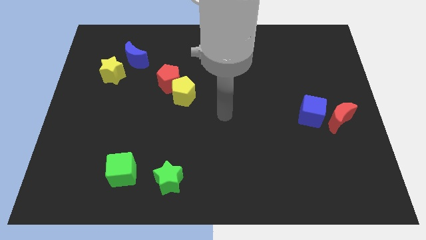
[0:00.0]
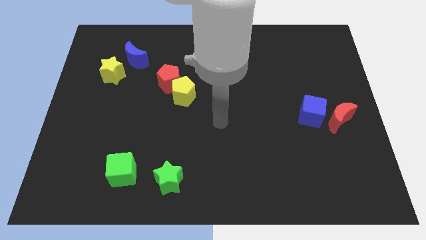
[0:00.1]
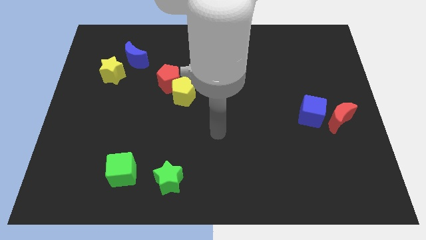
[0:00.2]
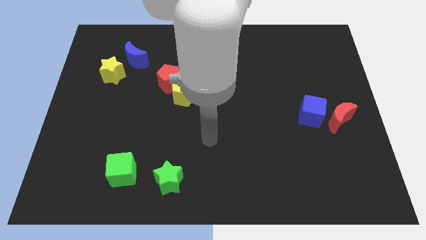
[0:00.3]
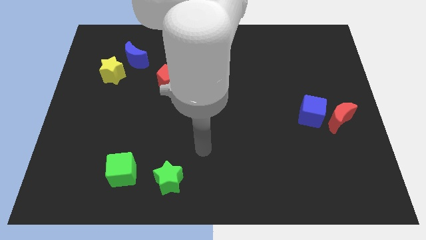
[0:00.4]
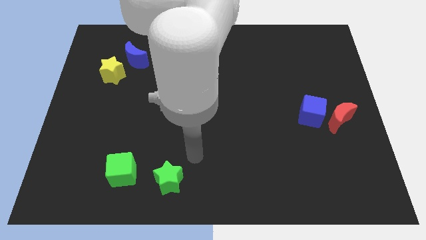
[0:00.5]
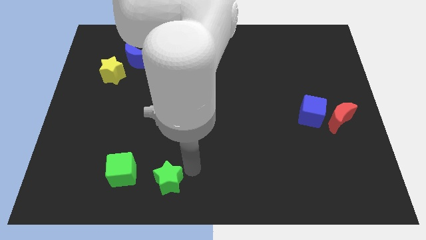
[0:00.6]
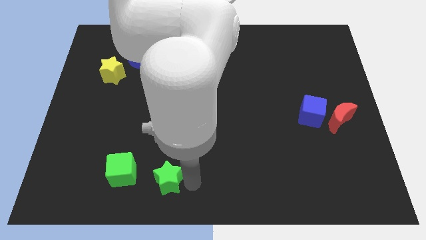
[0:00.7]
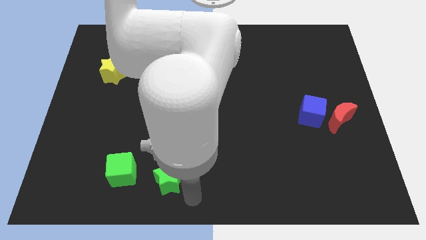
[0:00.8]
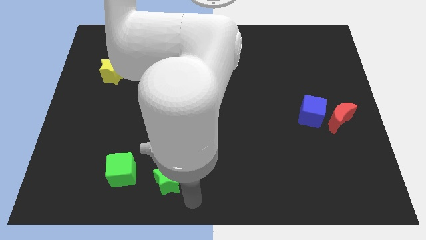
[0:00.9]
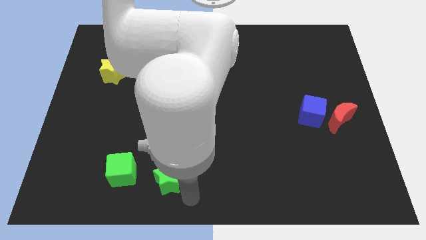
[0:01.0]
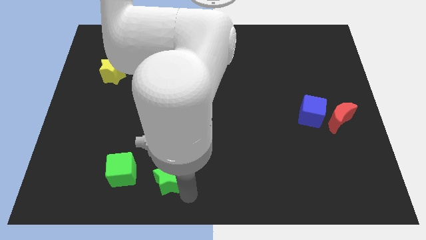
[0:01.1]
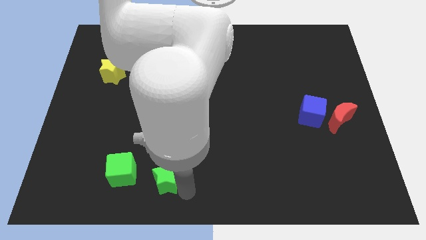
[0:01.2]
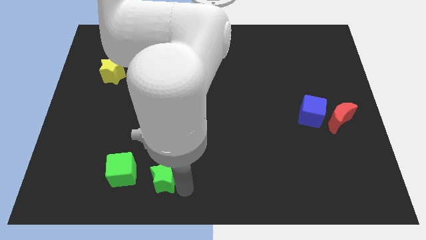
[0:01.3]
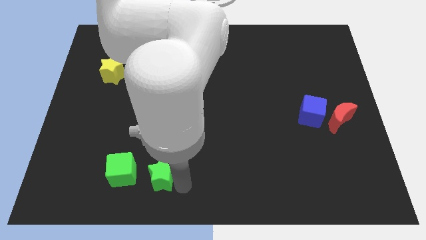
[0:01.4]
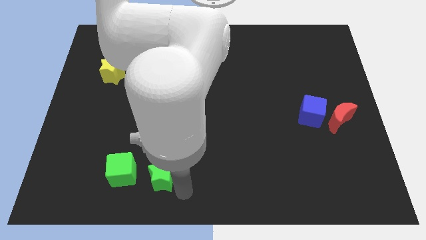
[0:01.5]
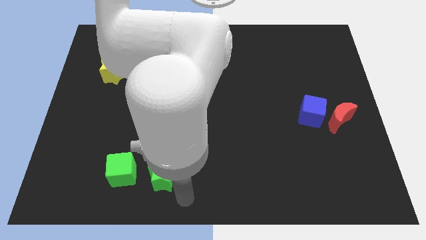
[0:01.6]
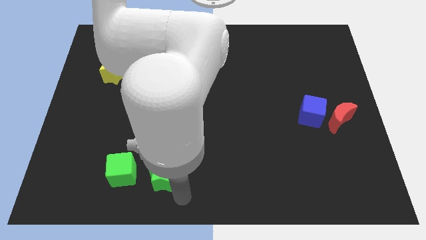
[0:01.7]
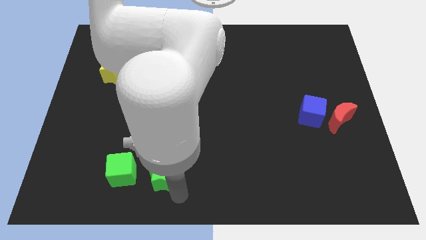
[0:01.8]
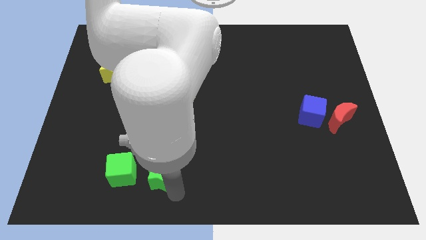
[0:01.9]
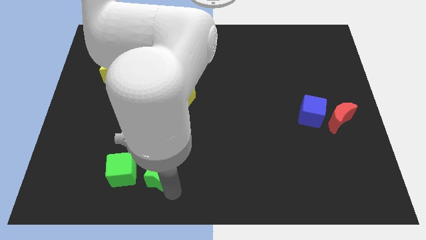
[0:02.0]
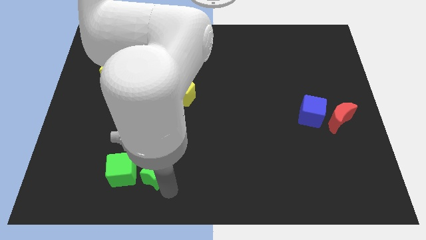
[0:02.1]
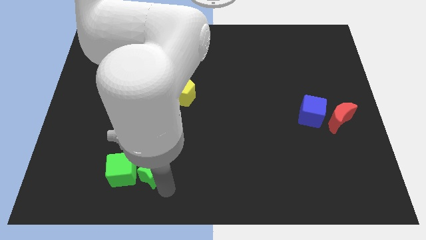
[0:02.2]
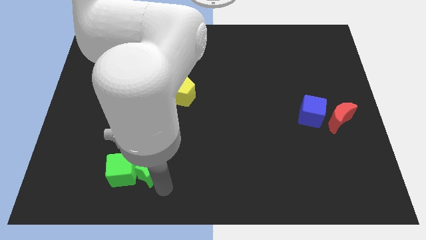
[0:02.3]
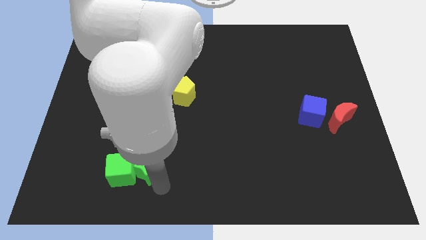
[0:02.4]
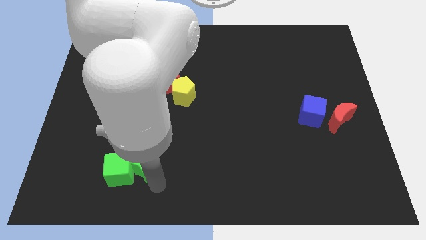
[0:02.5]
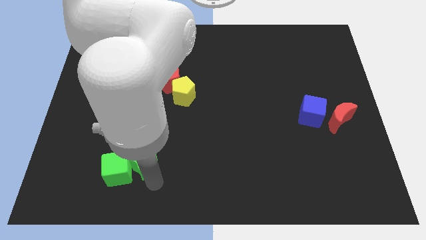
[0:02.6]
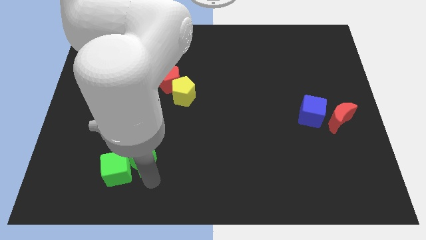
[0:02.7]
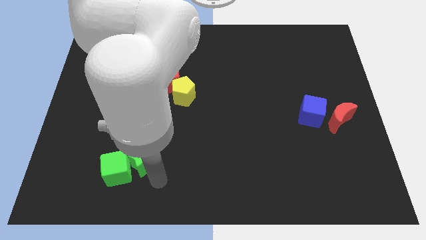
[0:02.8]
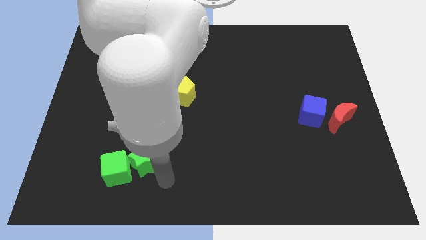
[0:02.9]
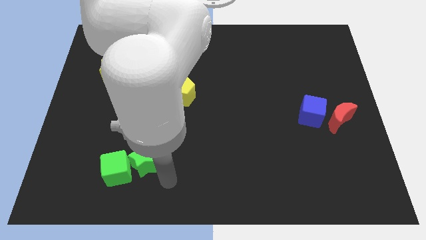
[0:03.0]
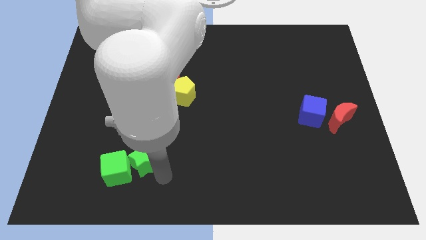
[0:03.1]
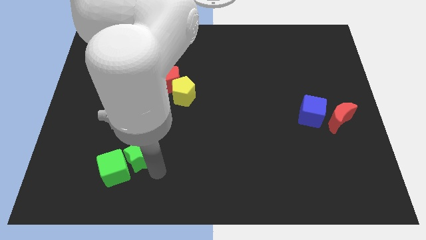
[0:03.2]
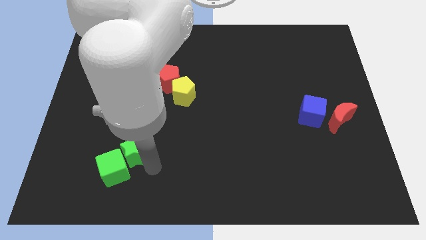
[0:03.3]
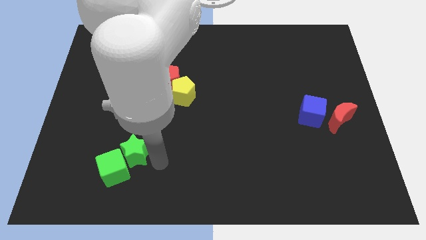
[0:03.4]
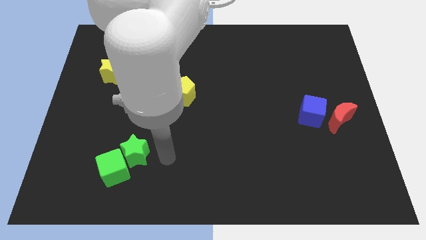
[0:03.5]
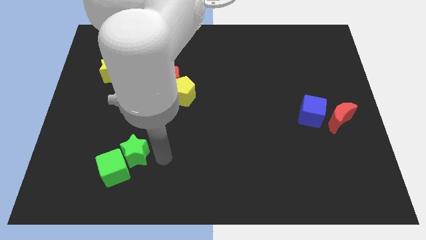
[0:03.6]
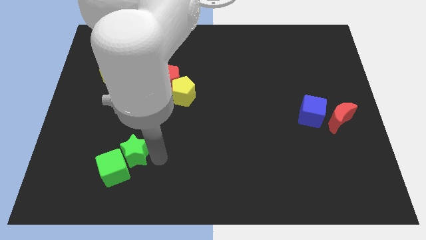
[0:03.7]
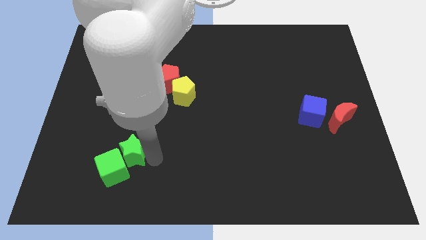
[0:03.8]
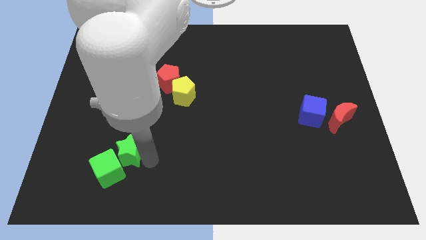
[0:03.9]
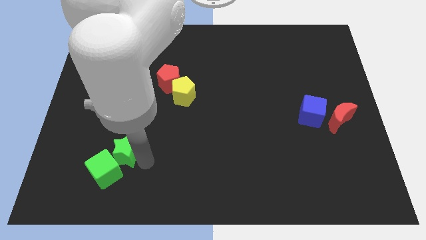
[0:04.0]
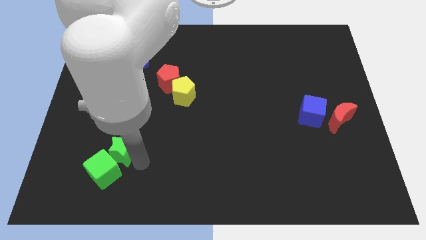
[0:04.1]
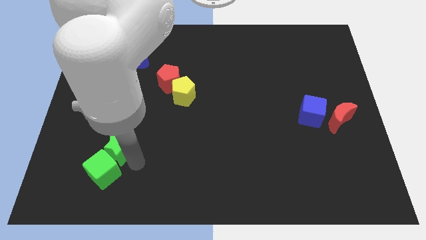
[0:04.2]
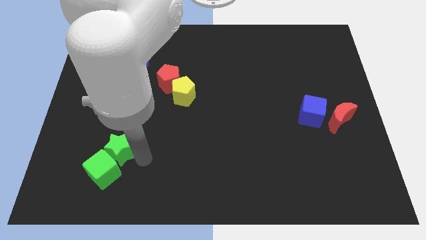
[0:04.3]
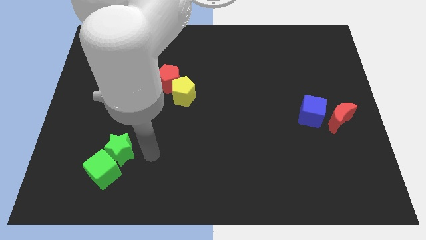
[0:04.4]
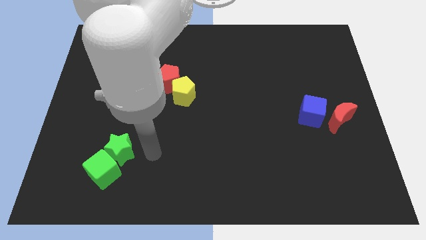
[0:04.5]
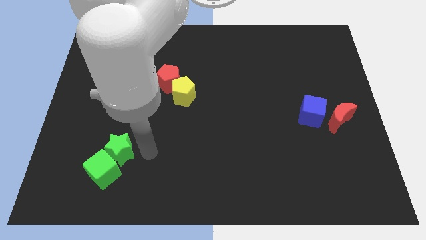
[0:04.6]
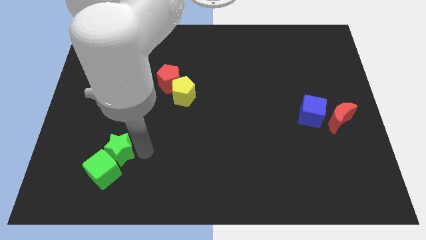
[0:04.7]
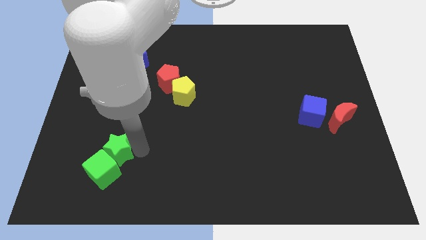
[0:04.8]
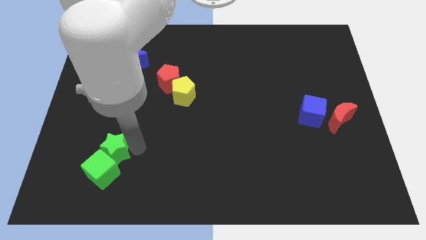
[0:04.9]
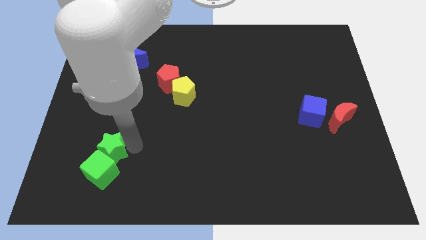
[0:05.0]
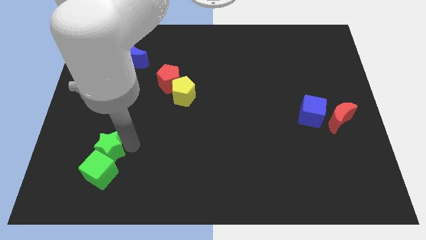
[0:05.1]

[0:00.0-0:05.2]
slide the green star diagonally up and to the left of the green cube
